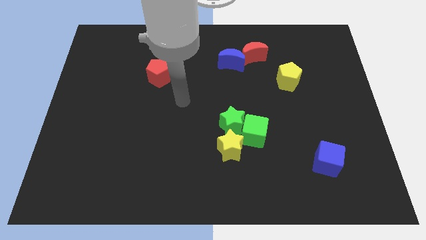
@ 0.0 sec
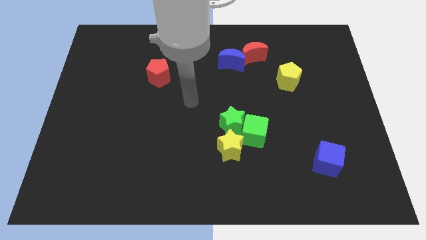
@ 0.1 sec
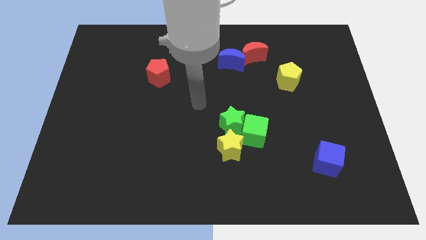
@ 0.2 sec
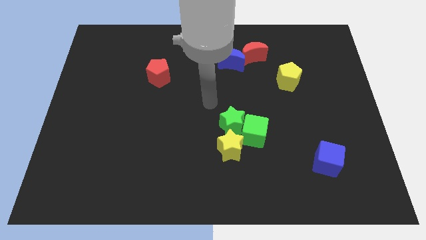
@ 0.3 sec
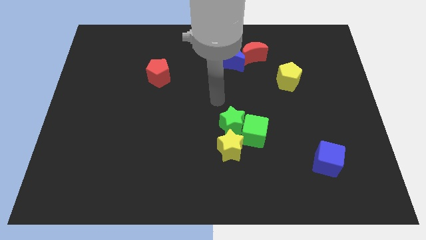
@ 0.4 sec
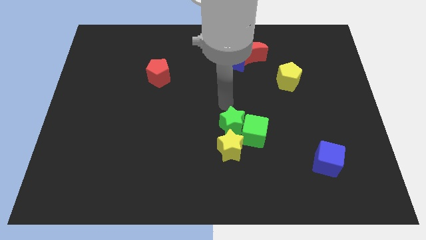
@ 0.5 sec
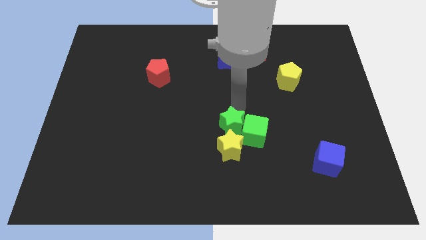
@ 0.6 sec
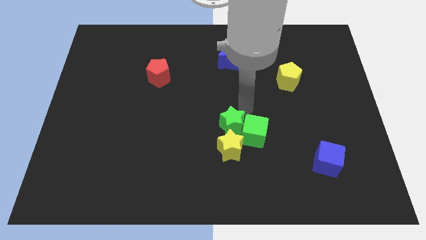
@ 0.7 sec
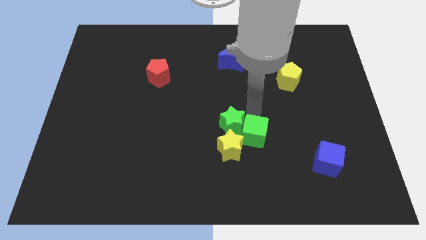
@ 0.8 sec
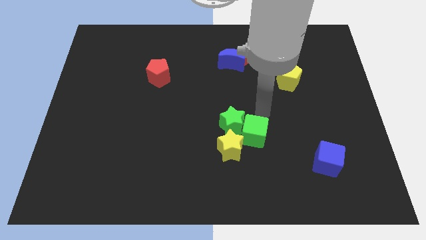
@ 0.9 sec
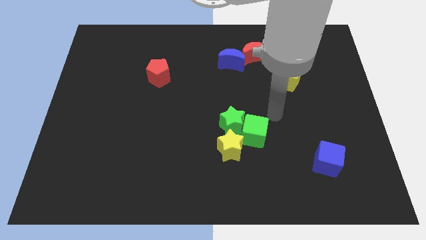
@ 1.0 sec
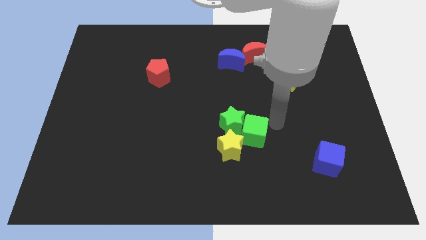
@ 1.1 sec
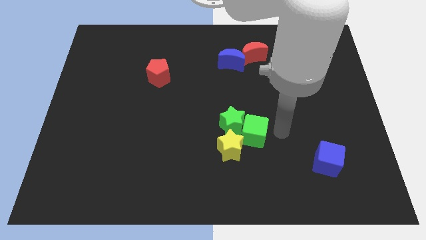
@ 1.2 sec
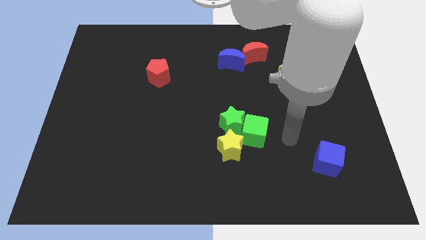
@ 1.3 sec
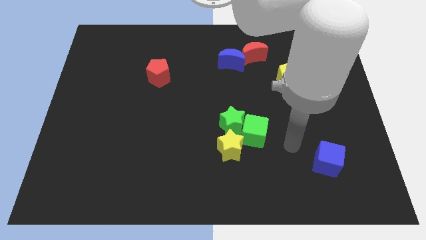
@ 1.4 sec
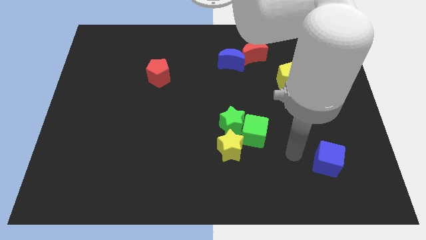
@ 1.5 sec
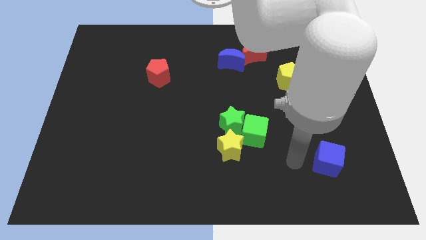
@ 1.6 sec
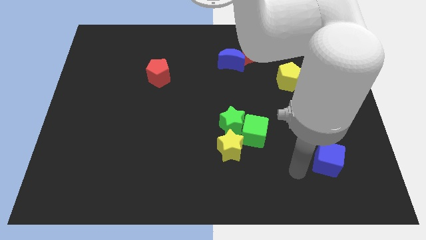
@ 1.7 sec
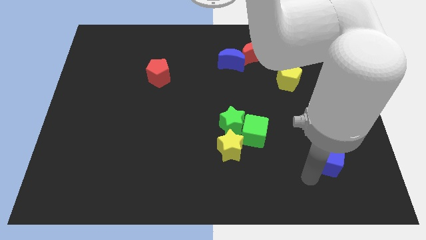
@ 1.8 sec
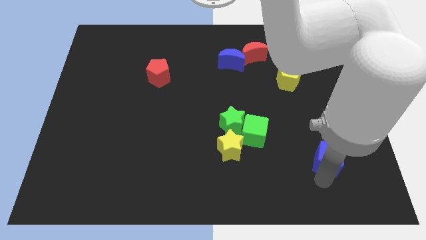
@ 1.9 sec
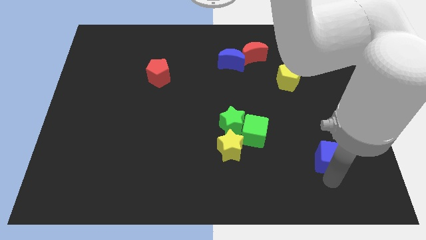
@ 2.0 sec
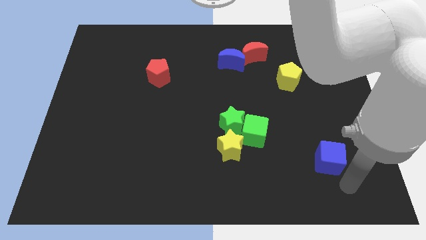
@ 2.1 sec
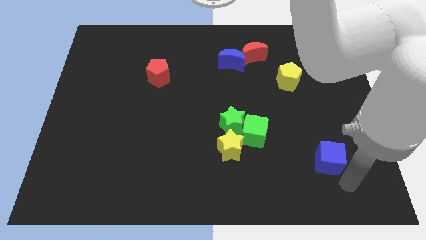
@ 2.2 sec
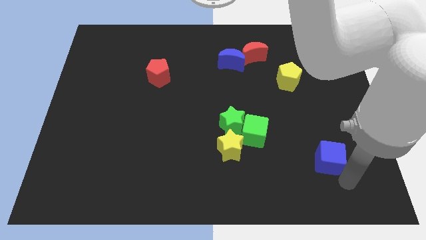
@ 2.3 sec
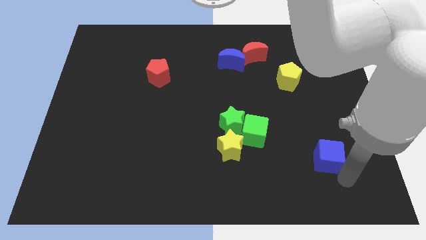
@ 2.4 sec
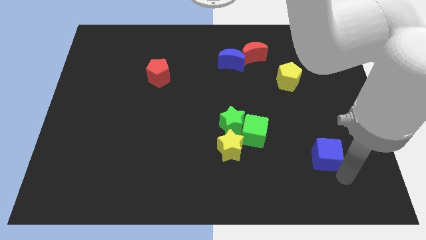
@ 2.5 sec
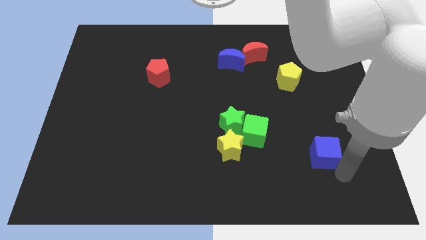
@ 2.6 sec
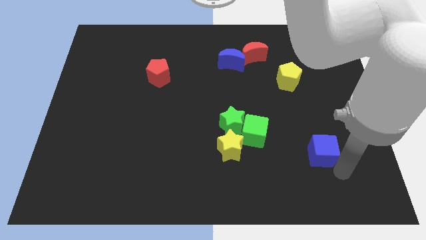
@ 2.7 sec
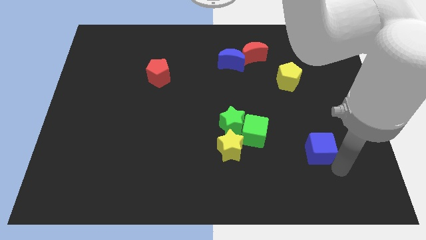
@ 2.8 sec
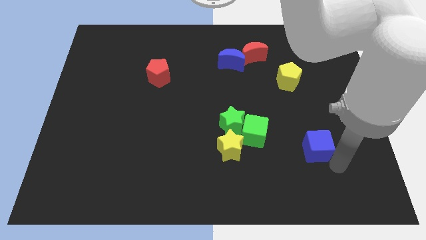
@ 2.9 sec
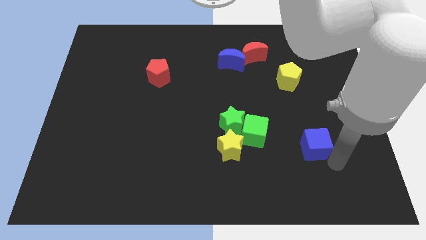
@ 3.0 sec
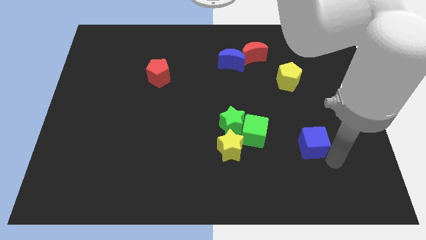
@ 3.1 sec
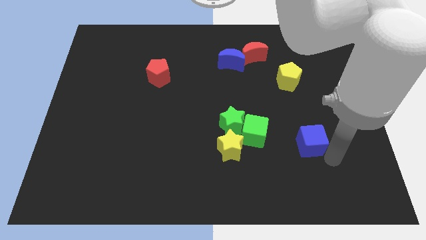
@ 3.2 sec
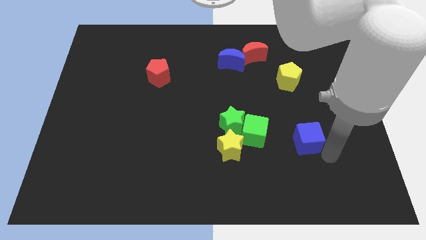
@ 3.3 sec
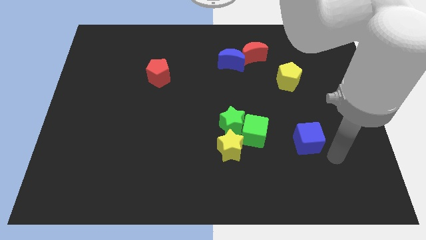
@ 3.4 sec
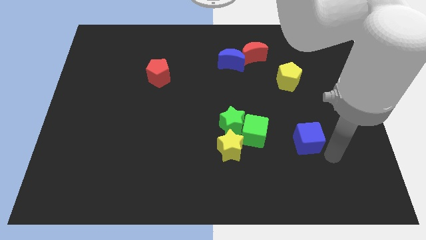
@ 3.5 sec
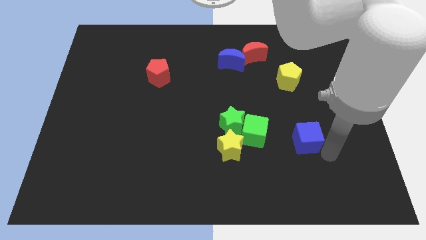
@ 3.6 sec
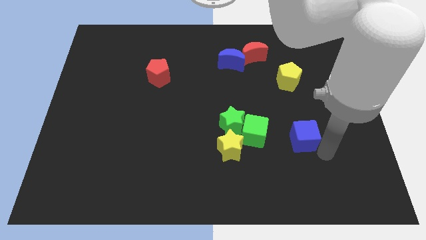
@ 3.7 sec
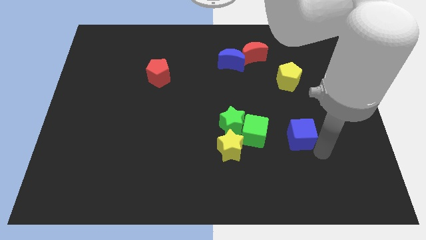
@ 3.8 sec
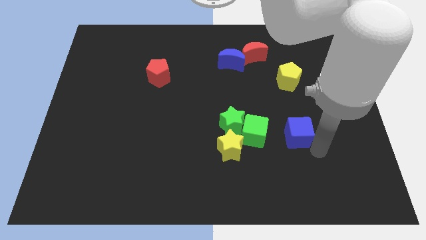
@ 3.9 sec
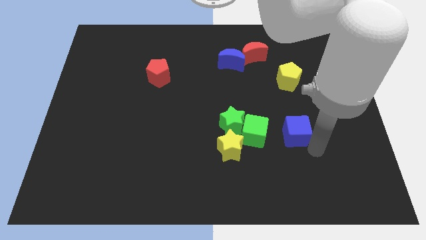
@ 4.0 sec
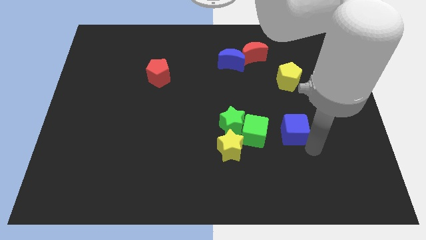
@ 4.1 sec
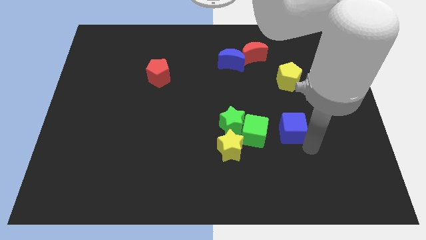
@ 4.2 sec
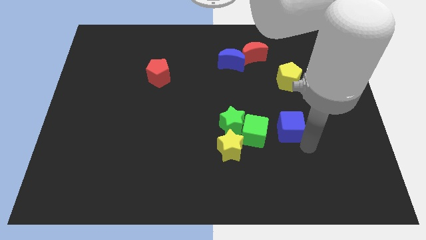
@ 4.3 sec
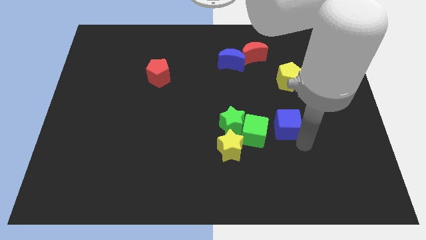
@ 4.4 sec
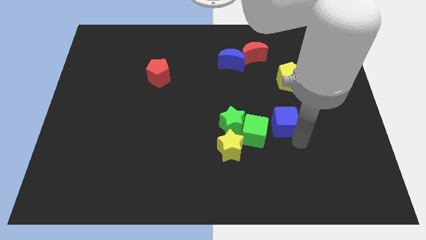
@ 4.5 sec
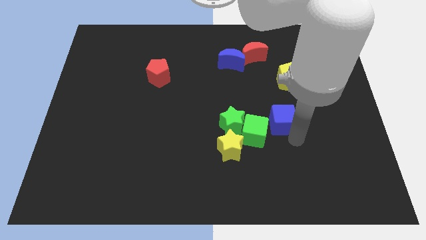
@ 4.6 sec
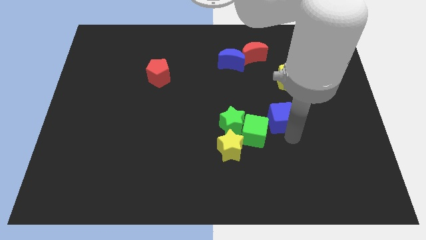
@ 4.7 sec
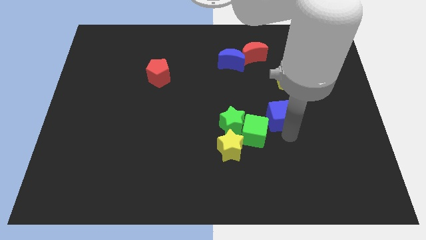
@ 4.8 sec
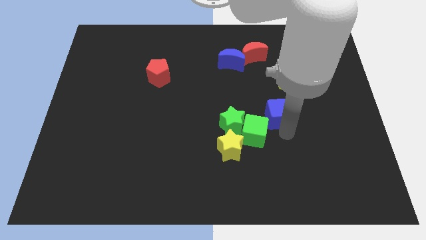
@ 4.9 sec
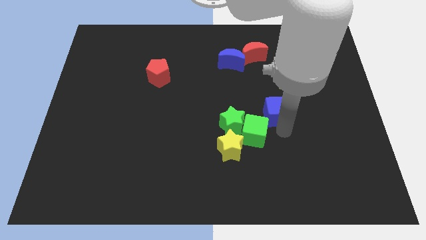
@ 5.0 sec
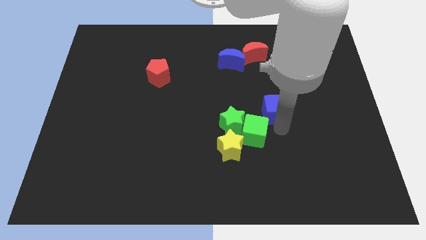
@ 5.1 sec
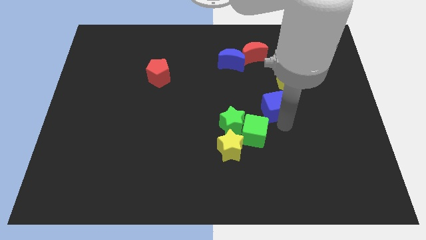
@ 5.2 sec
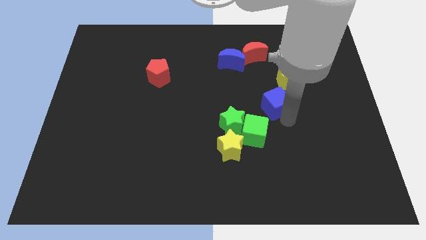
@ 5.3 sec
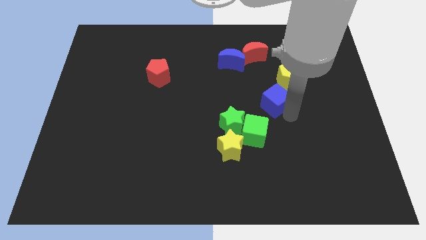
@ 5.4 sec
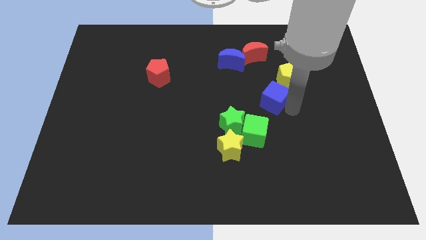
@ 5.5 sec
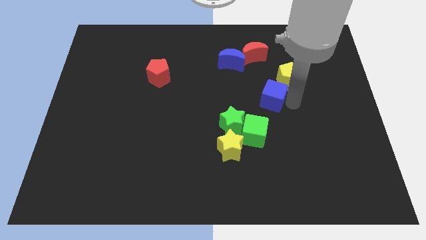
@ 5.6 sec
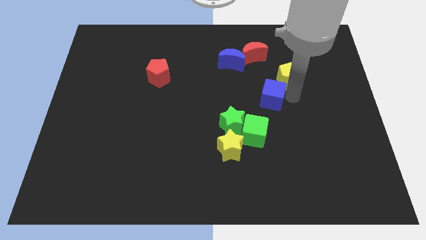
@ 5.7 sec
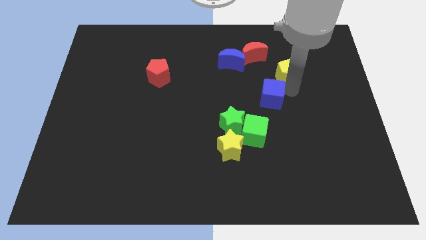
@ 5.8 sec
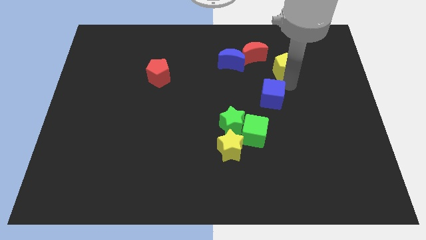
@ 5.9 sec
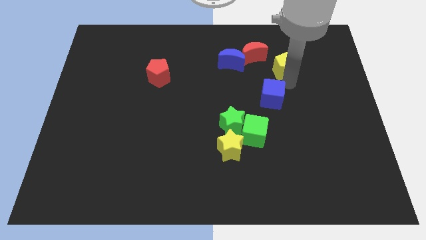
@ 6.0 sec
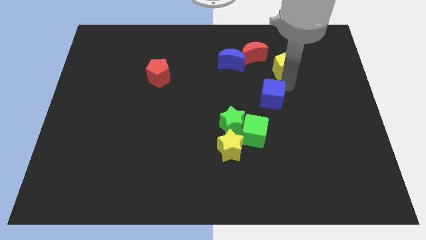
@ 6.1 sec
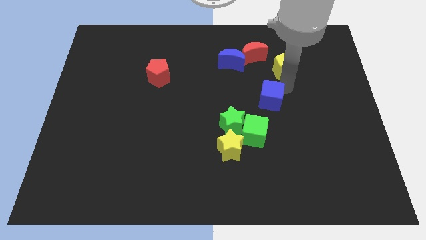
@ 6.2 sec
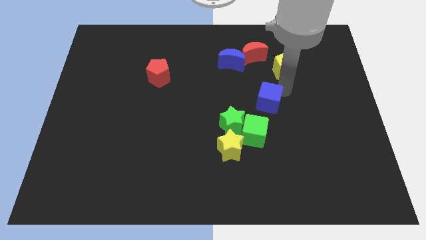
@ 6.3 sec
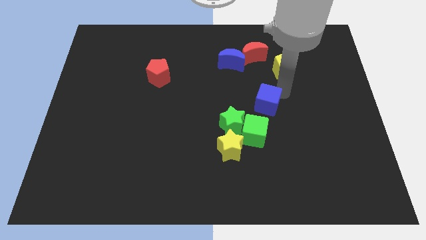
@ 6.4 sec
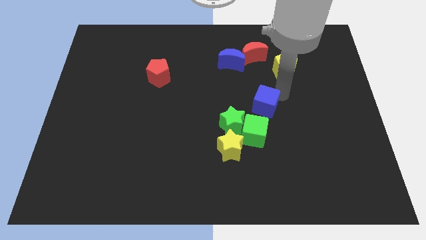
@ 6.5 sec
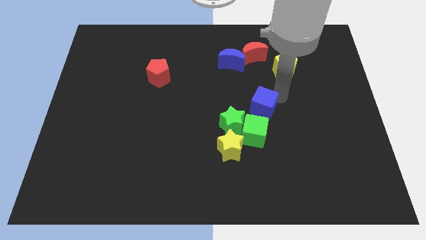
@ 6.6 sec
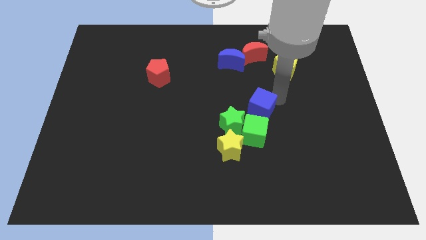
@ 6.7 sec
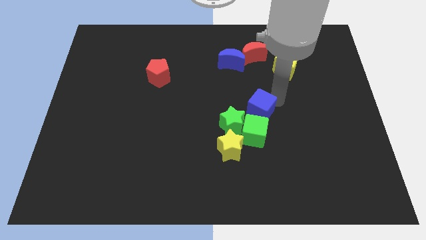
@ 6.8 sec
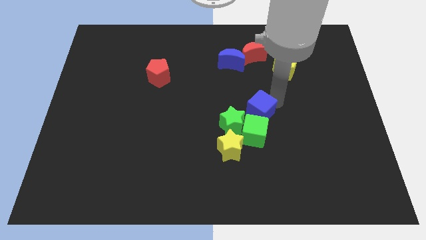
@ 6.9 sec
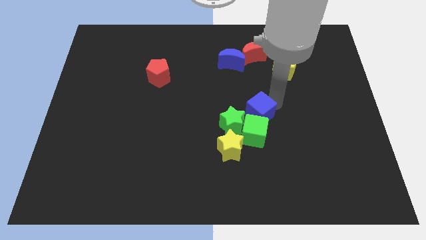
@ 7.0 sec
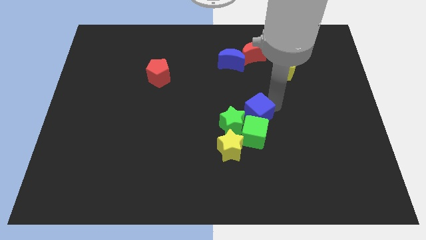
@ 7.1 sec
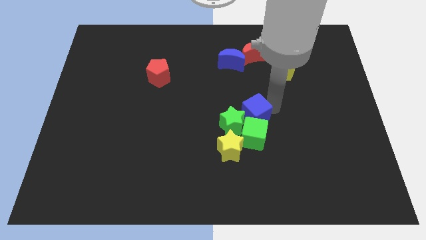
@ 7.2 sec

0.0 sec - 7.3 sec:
push the blue cube close to the green star

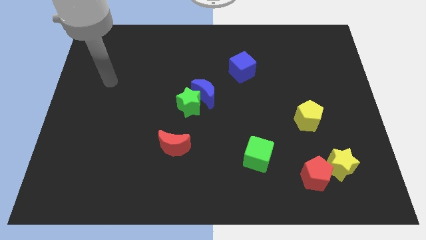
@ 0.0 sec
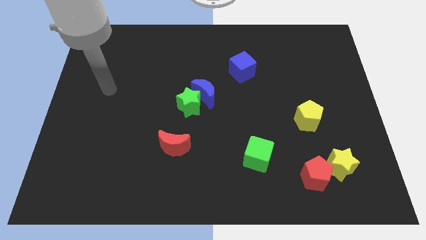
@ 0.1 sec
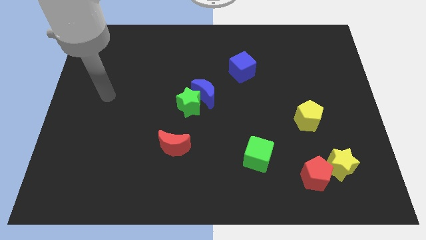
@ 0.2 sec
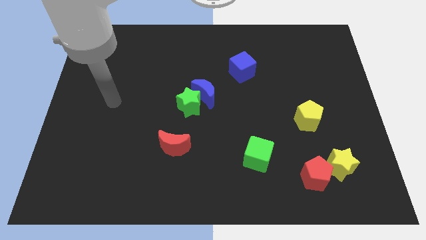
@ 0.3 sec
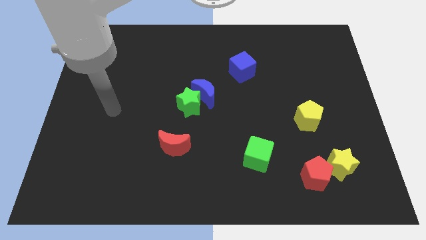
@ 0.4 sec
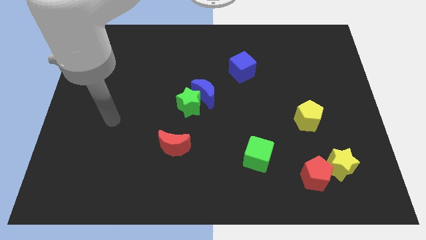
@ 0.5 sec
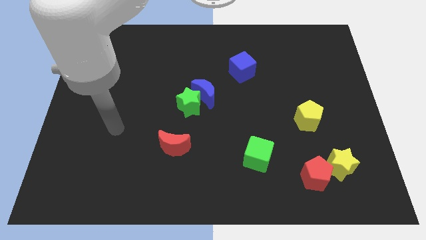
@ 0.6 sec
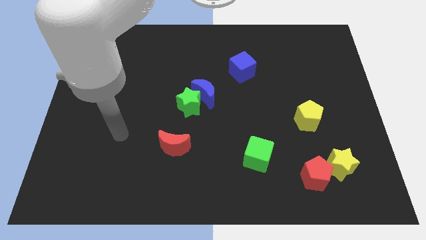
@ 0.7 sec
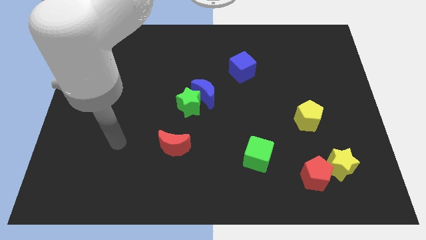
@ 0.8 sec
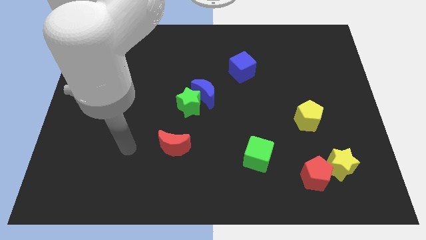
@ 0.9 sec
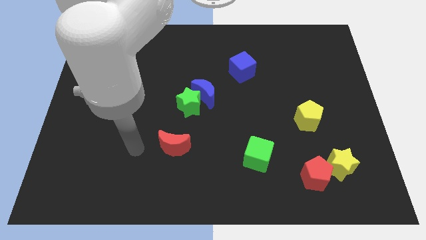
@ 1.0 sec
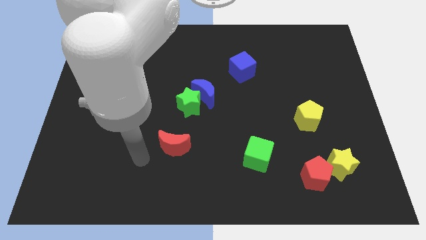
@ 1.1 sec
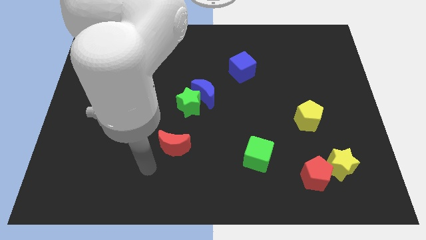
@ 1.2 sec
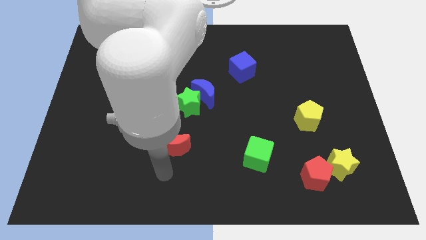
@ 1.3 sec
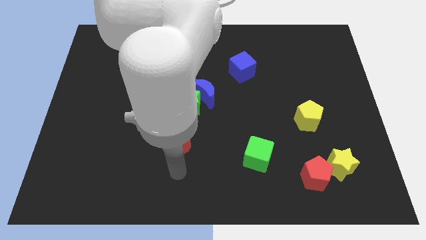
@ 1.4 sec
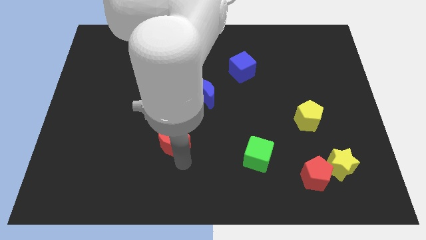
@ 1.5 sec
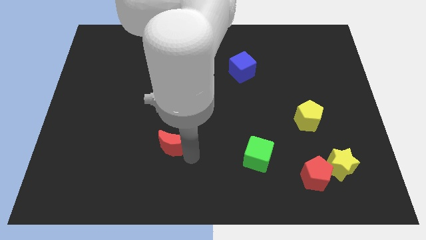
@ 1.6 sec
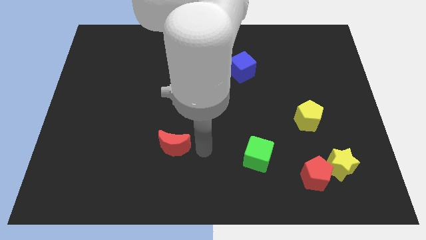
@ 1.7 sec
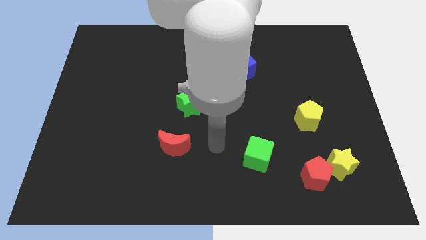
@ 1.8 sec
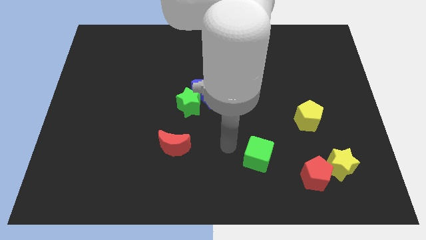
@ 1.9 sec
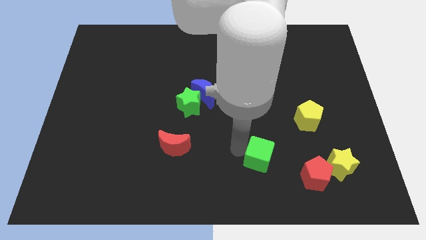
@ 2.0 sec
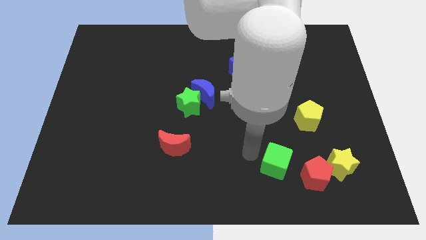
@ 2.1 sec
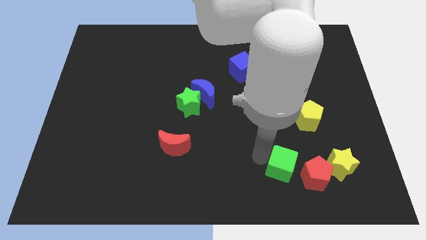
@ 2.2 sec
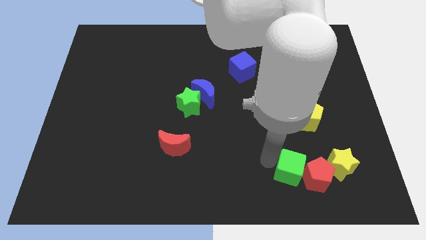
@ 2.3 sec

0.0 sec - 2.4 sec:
push the green cube close to the red pentagon
